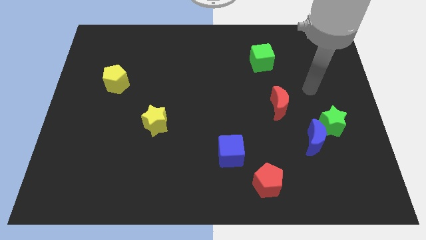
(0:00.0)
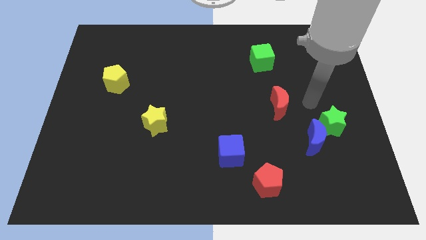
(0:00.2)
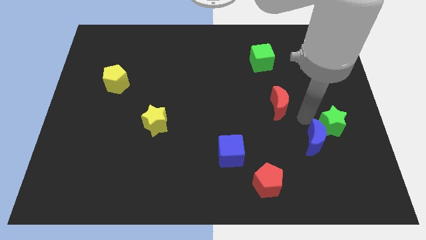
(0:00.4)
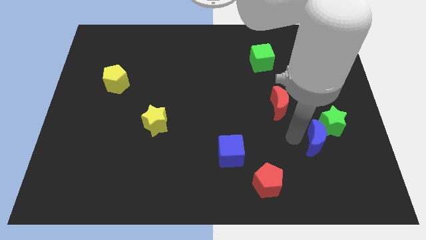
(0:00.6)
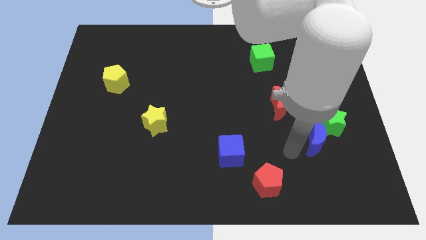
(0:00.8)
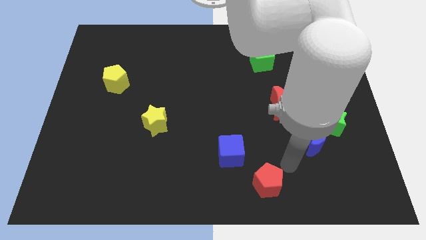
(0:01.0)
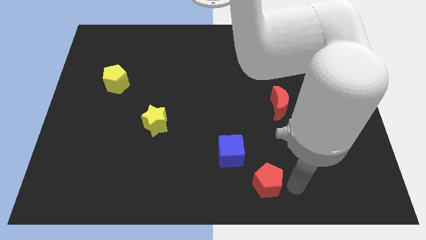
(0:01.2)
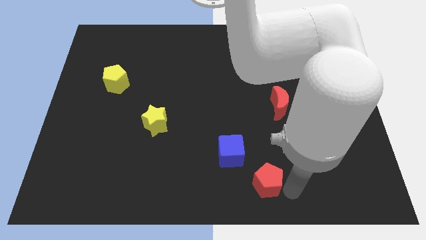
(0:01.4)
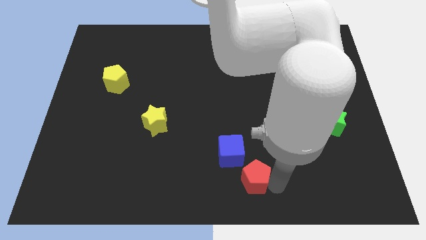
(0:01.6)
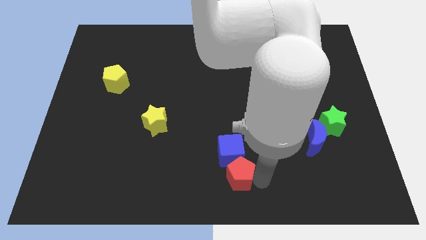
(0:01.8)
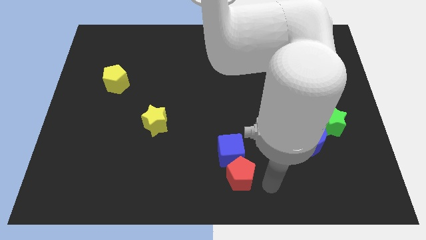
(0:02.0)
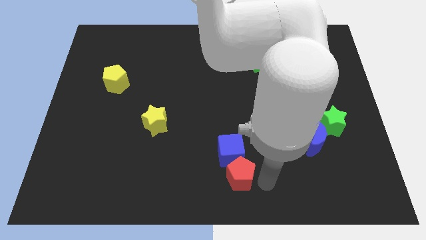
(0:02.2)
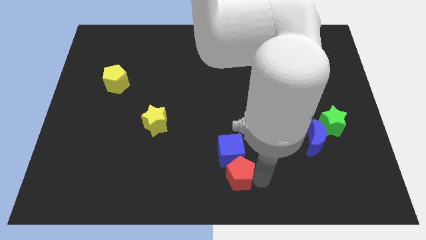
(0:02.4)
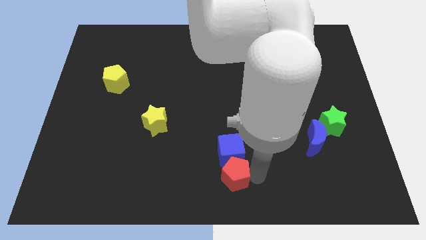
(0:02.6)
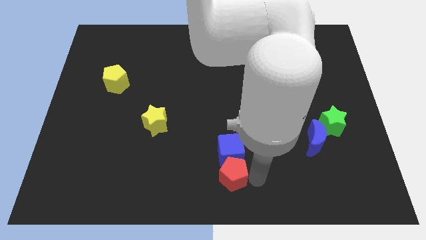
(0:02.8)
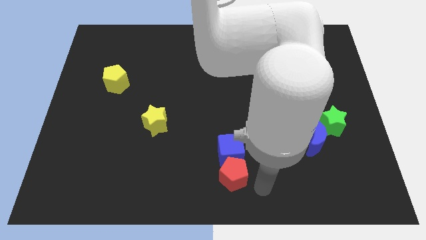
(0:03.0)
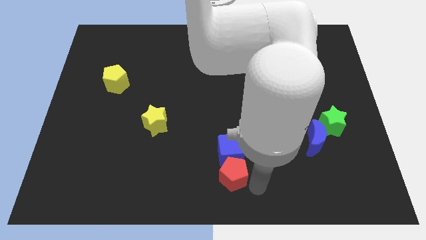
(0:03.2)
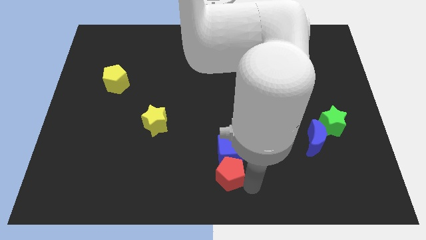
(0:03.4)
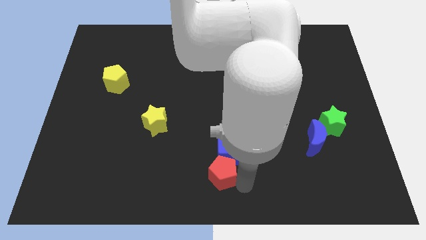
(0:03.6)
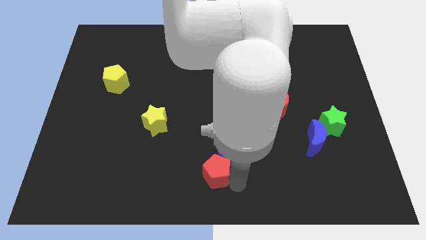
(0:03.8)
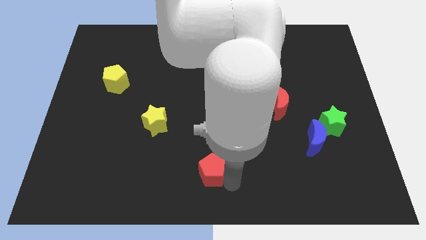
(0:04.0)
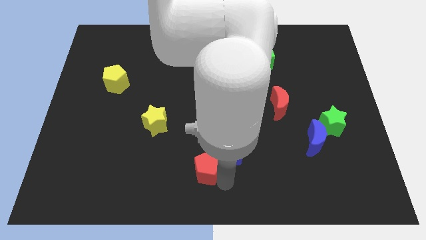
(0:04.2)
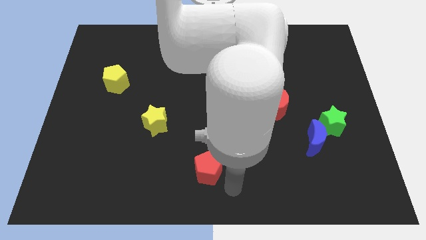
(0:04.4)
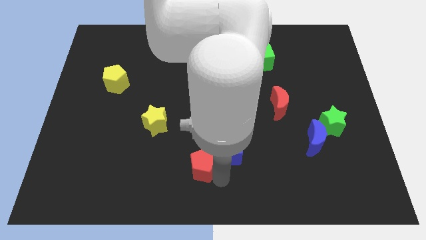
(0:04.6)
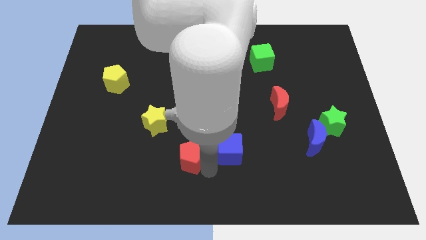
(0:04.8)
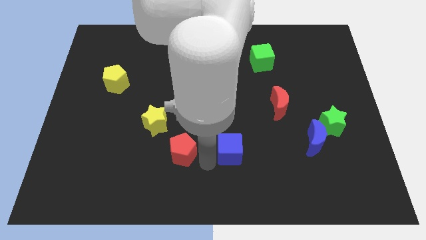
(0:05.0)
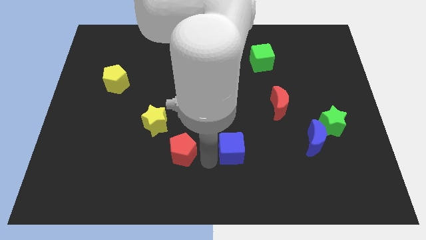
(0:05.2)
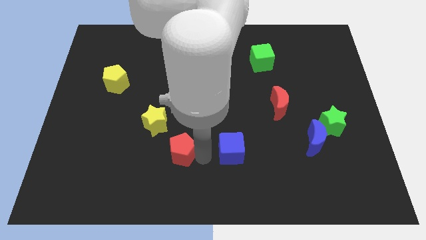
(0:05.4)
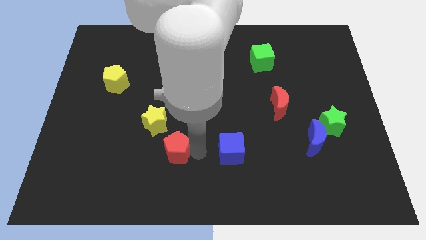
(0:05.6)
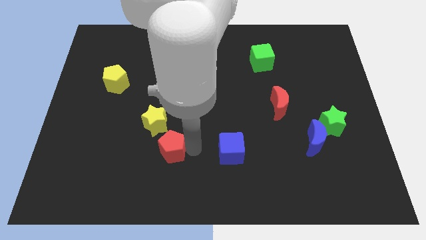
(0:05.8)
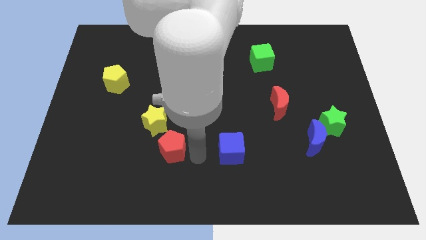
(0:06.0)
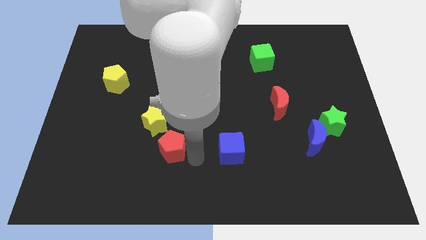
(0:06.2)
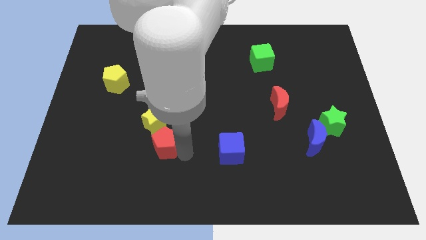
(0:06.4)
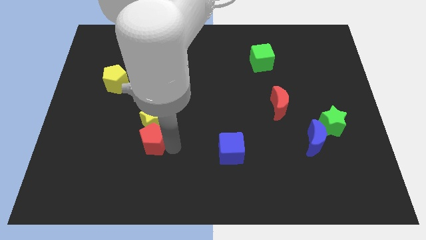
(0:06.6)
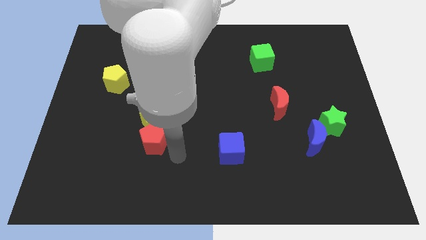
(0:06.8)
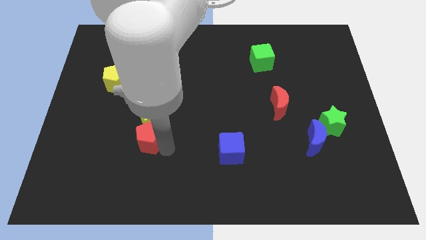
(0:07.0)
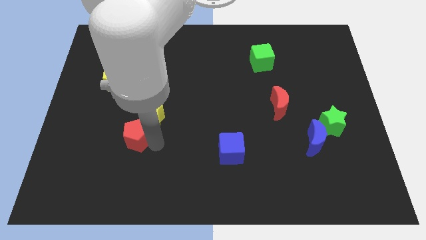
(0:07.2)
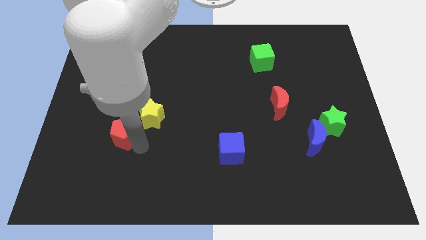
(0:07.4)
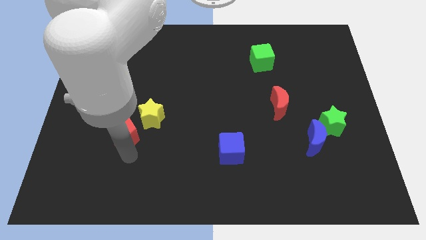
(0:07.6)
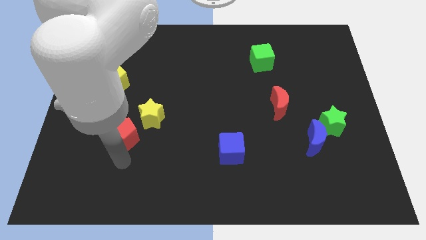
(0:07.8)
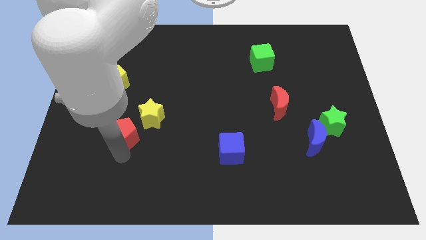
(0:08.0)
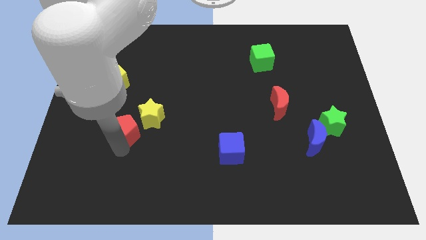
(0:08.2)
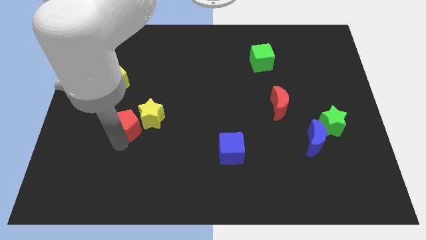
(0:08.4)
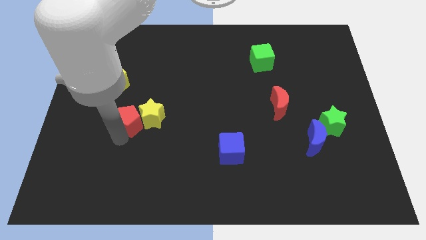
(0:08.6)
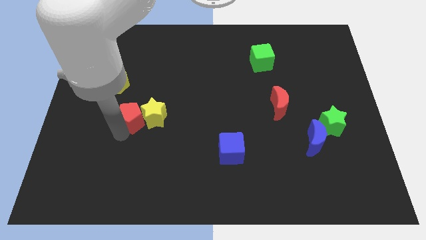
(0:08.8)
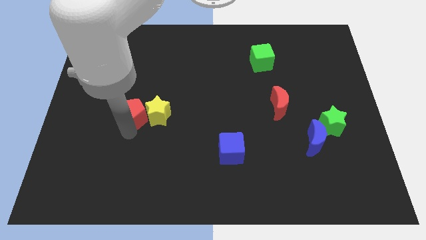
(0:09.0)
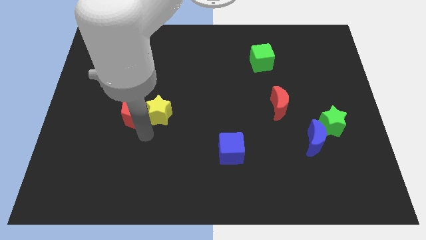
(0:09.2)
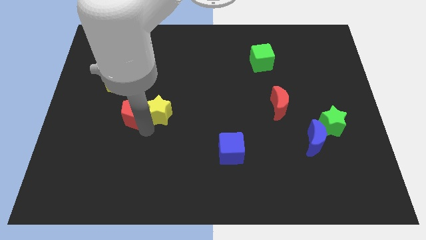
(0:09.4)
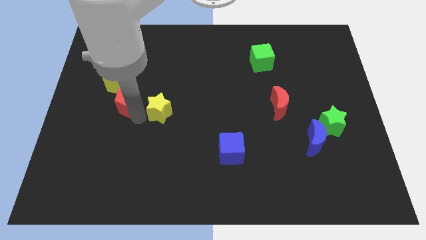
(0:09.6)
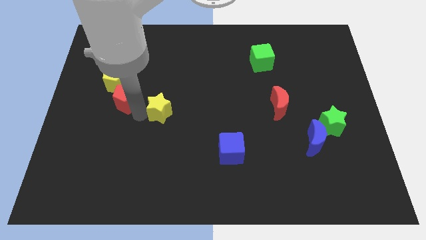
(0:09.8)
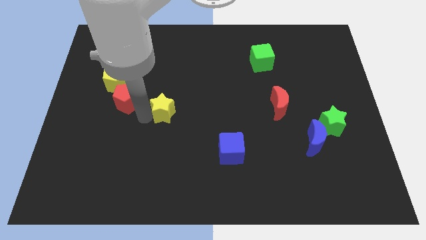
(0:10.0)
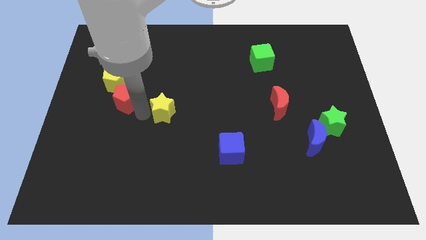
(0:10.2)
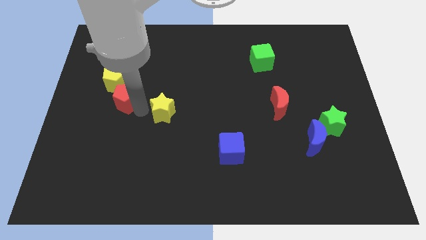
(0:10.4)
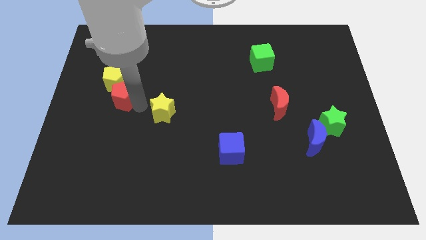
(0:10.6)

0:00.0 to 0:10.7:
put the red pentagon close to the yellow pentagon

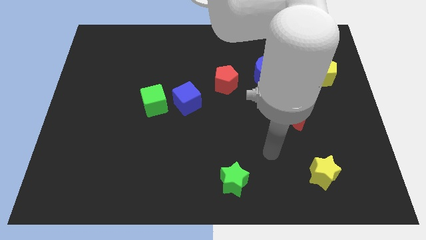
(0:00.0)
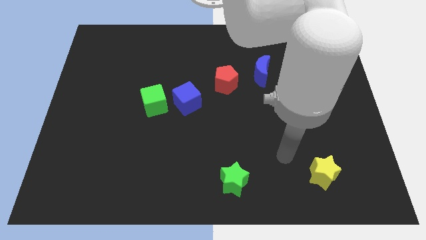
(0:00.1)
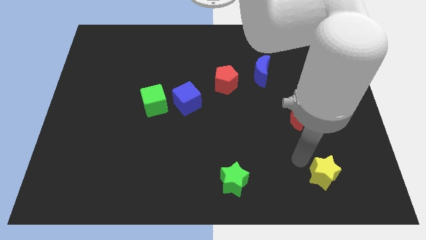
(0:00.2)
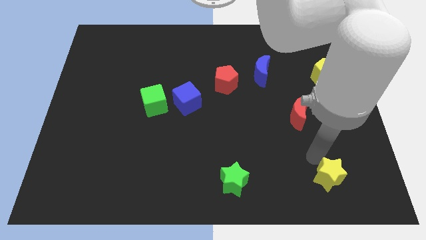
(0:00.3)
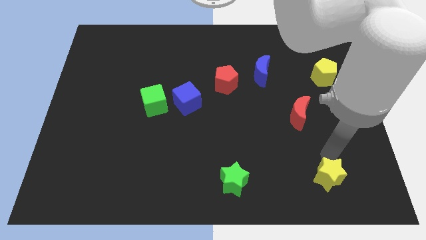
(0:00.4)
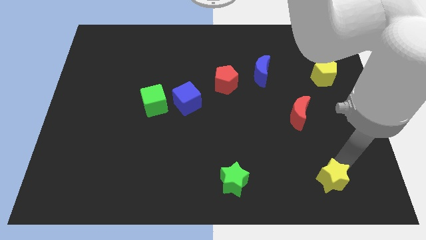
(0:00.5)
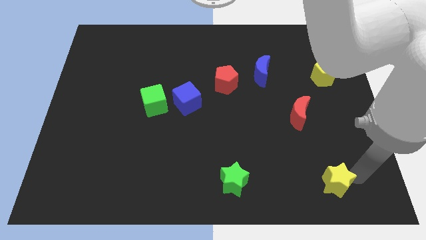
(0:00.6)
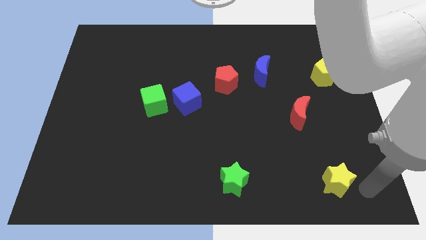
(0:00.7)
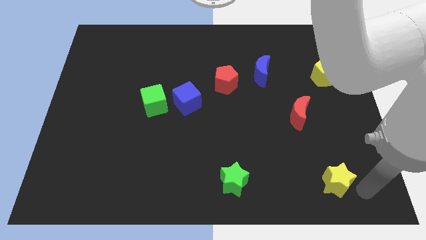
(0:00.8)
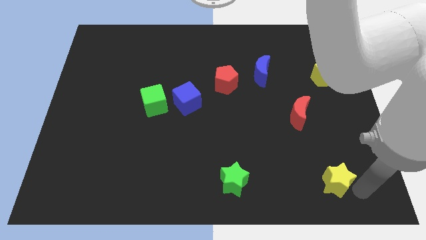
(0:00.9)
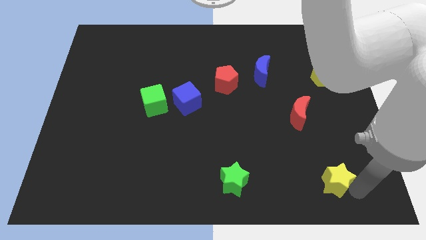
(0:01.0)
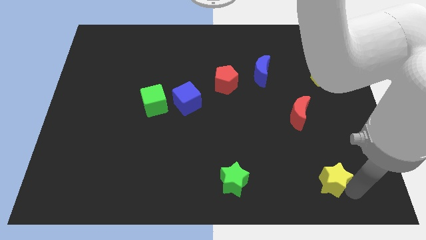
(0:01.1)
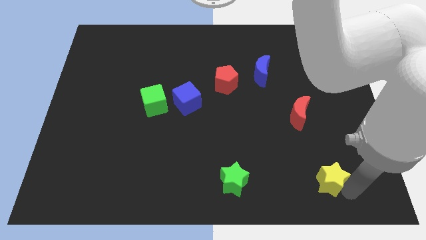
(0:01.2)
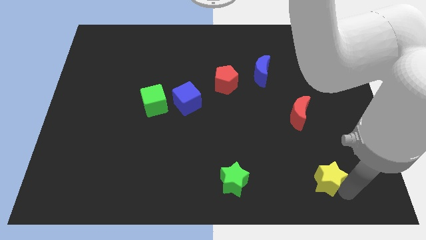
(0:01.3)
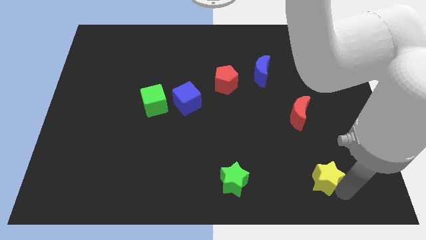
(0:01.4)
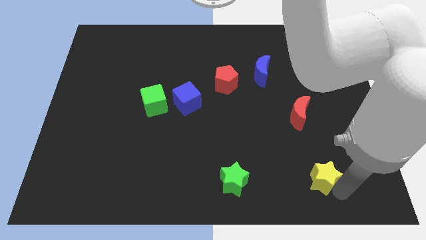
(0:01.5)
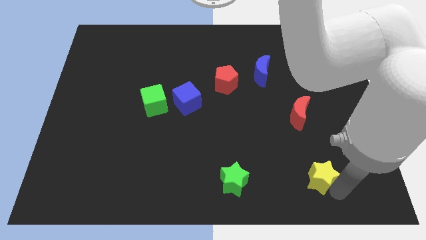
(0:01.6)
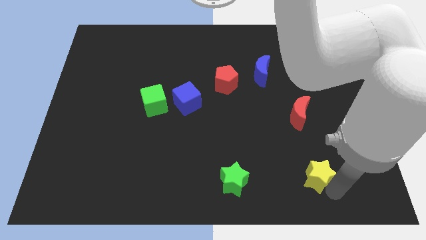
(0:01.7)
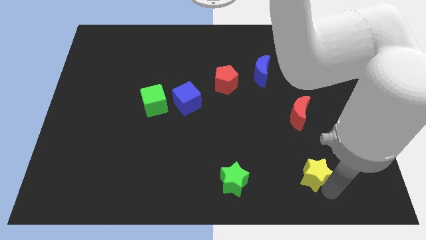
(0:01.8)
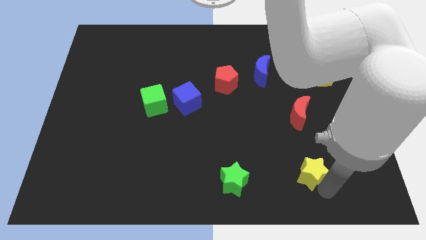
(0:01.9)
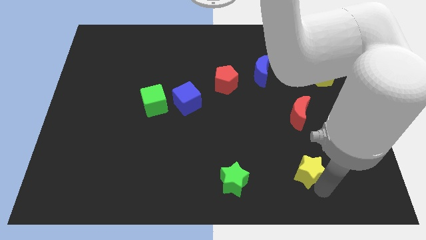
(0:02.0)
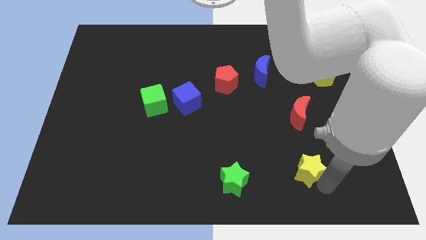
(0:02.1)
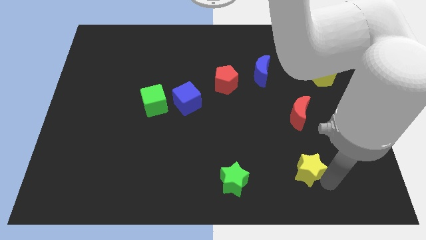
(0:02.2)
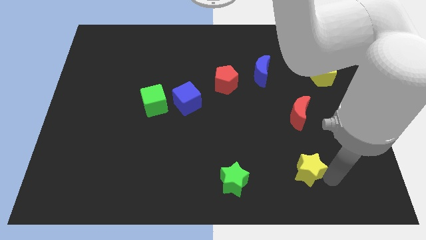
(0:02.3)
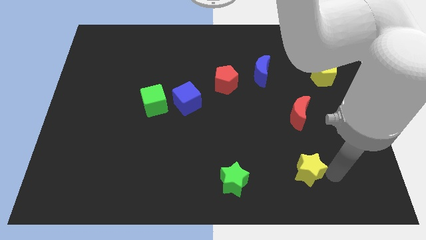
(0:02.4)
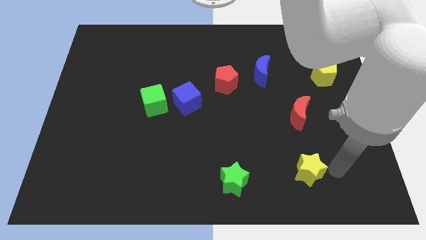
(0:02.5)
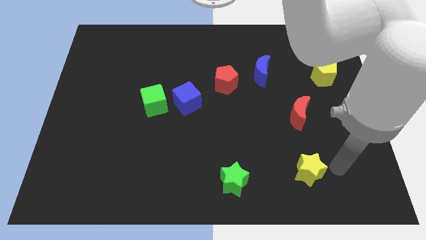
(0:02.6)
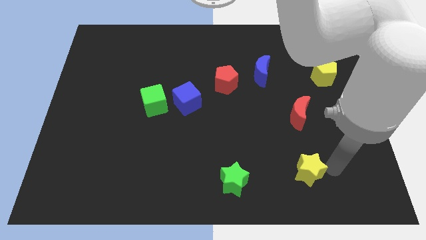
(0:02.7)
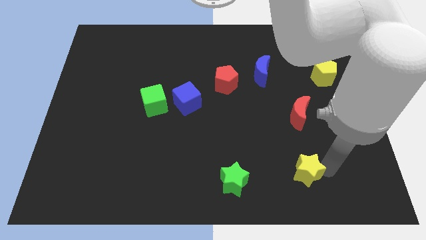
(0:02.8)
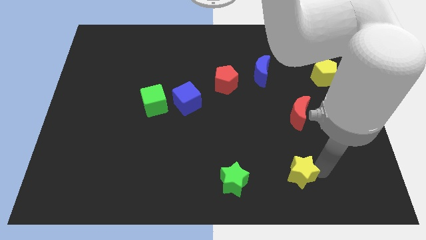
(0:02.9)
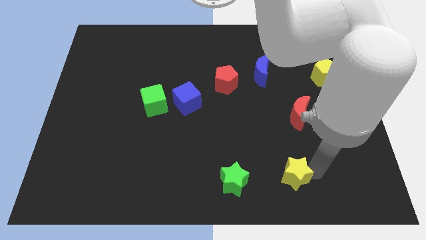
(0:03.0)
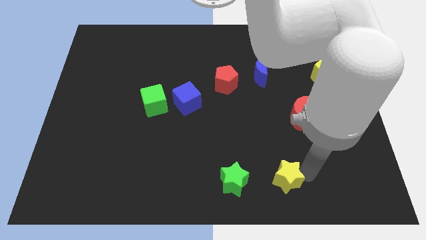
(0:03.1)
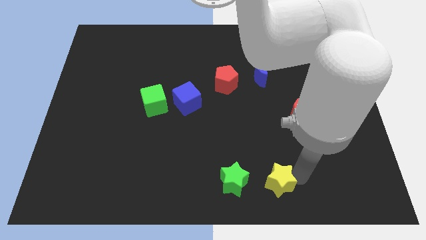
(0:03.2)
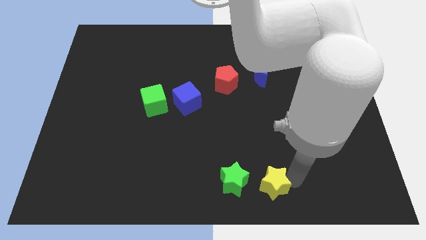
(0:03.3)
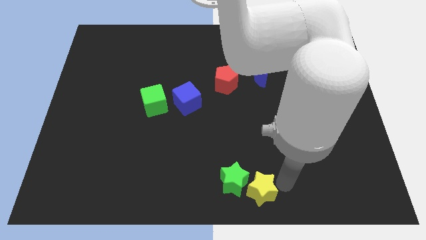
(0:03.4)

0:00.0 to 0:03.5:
move the yellow star towards the green star
